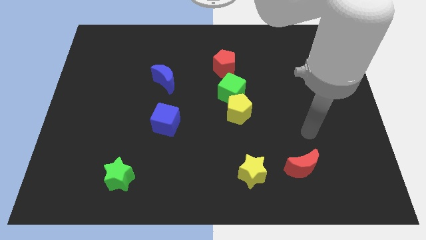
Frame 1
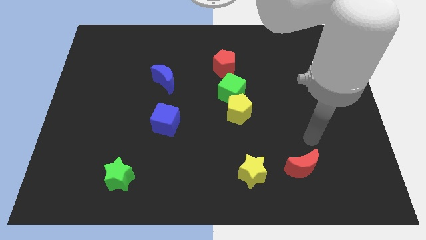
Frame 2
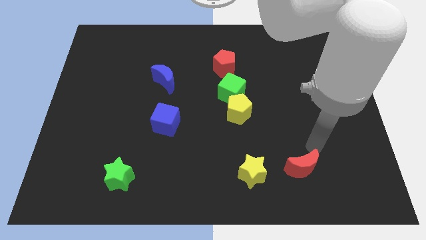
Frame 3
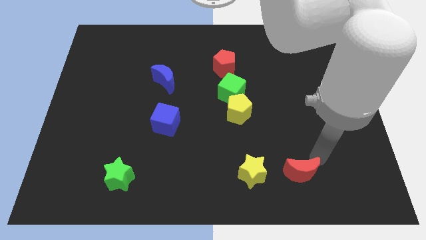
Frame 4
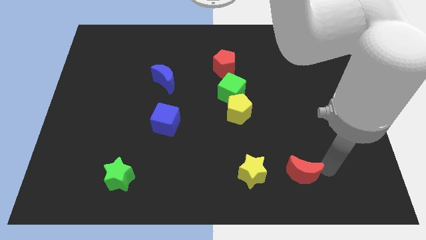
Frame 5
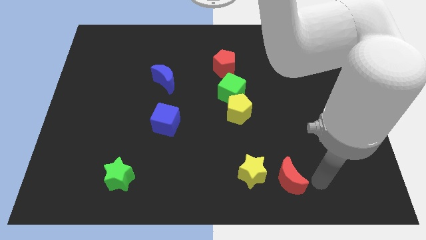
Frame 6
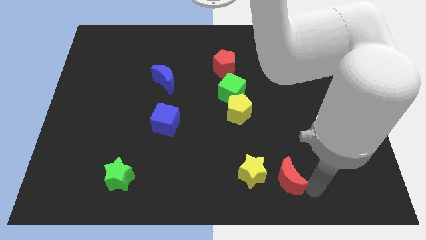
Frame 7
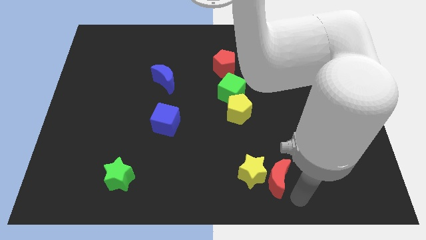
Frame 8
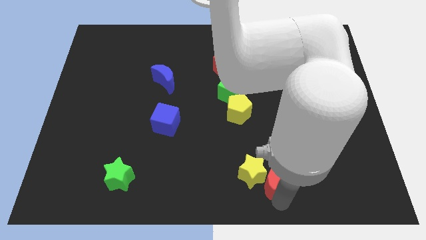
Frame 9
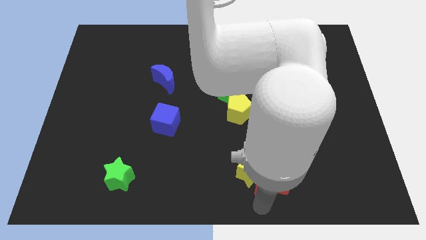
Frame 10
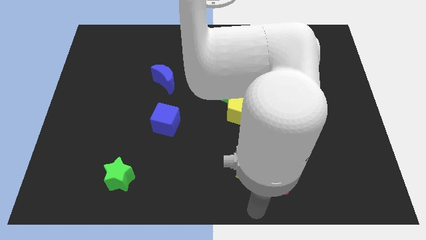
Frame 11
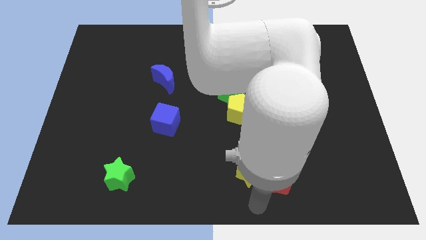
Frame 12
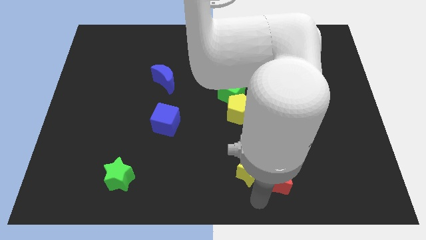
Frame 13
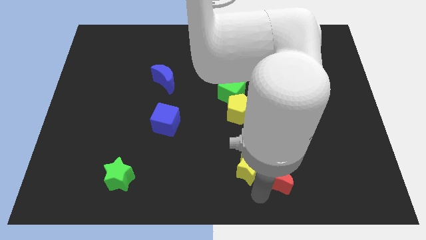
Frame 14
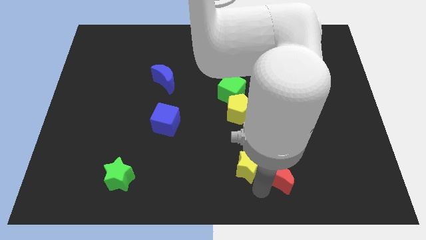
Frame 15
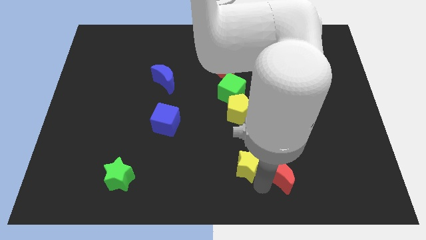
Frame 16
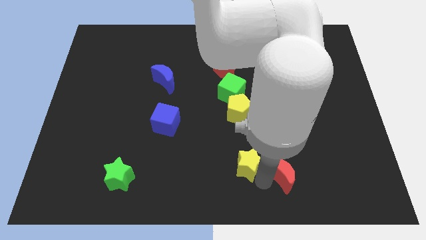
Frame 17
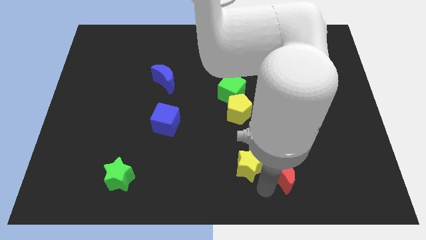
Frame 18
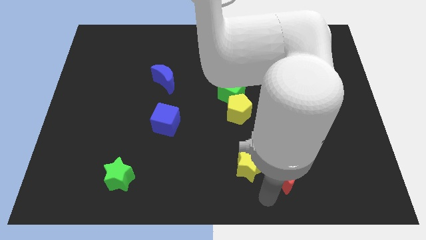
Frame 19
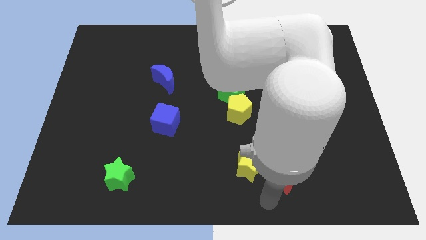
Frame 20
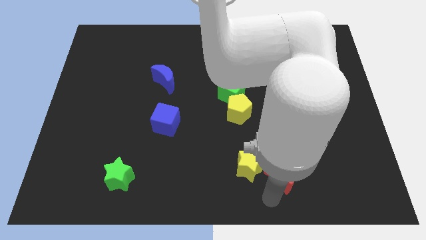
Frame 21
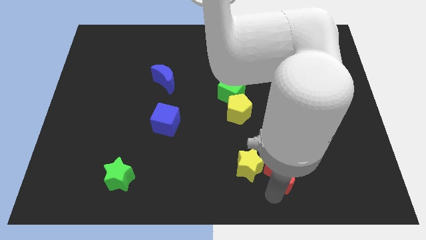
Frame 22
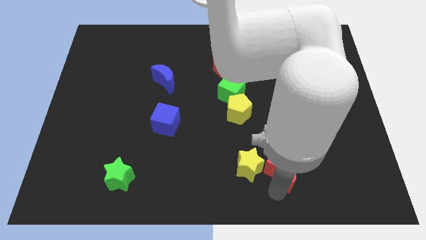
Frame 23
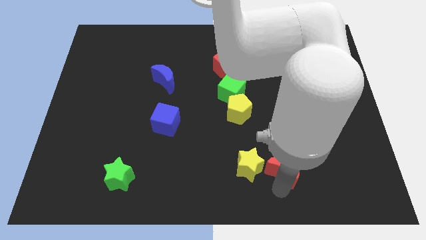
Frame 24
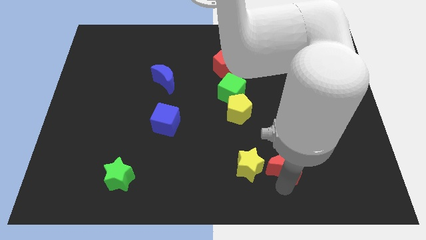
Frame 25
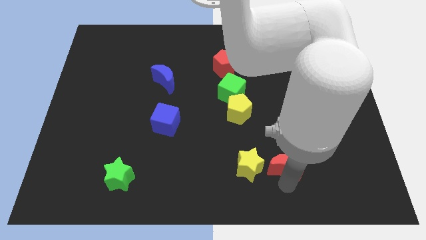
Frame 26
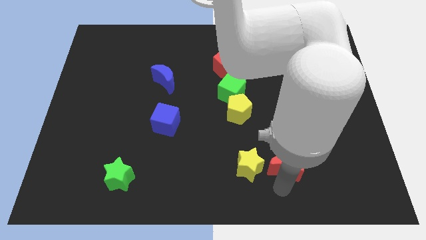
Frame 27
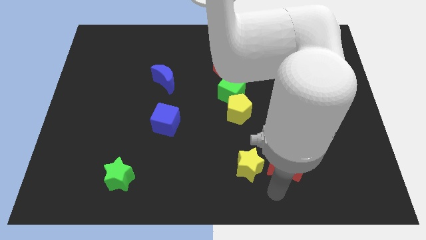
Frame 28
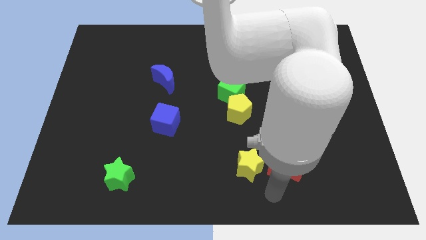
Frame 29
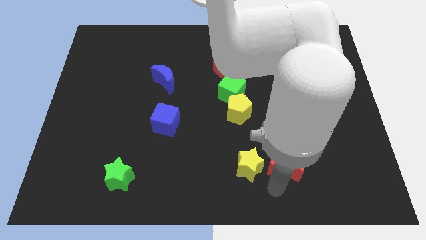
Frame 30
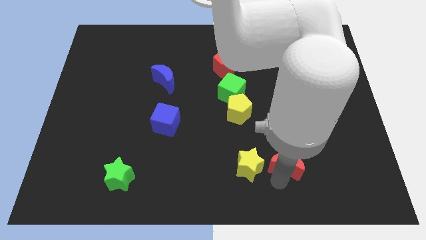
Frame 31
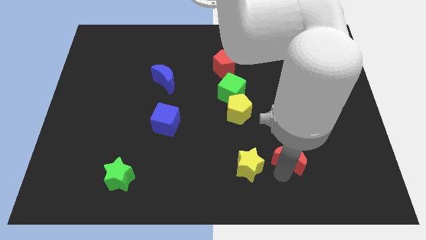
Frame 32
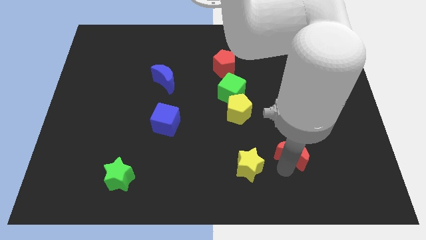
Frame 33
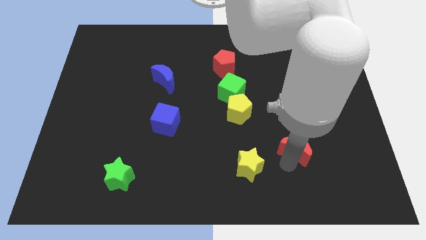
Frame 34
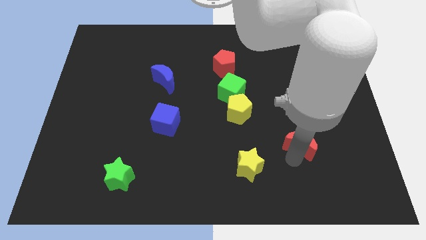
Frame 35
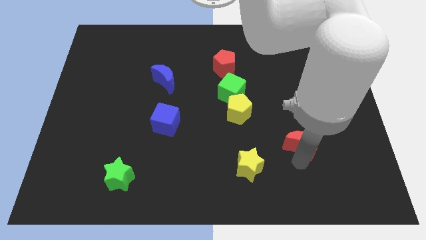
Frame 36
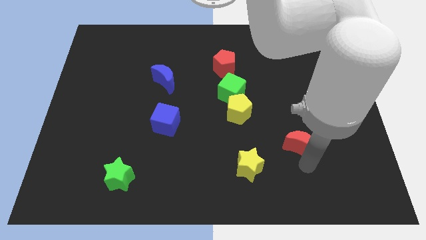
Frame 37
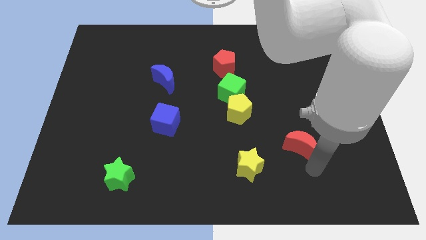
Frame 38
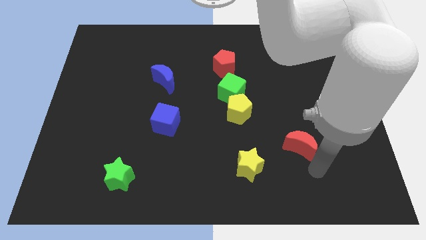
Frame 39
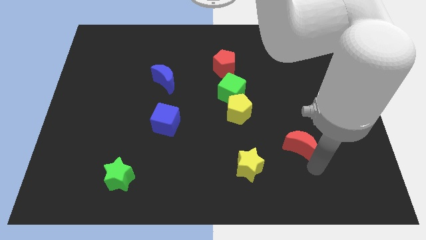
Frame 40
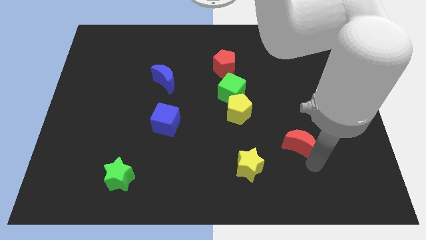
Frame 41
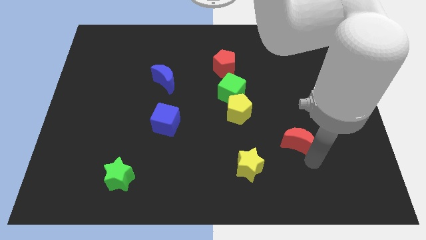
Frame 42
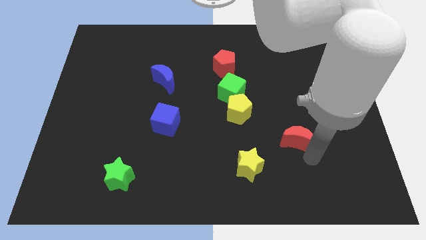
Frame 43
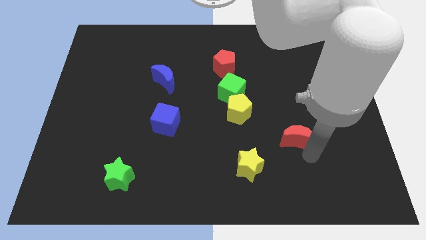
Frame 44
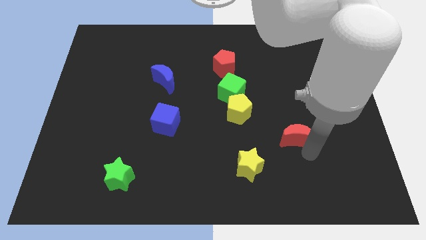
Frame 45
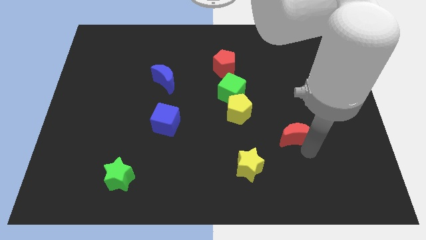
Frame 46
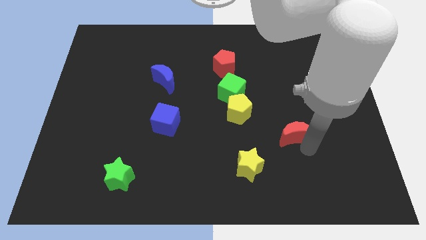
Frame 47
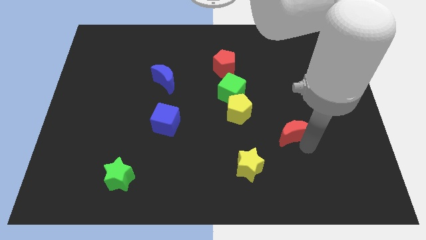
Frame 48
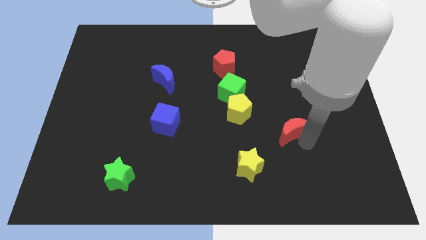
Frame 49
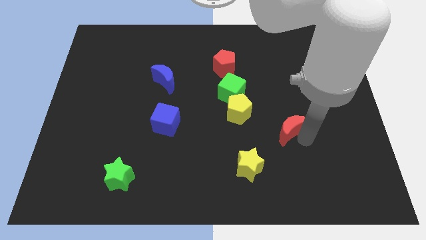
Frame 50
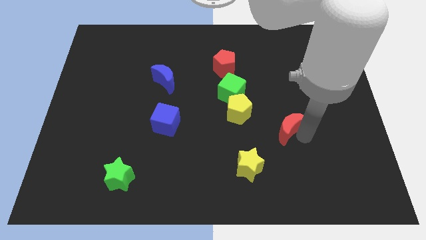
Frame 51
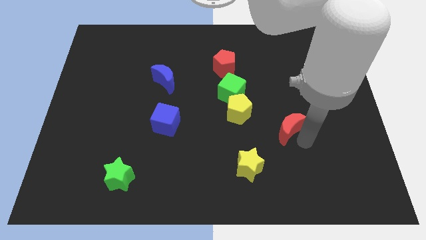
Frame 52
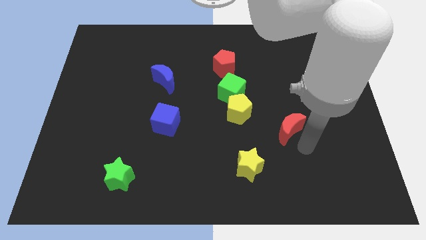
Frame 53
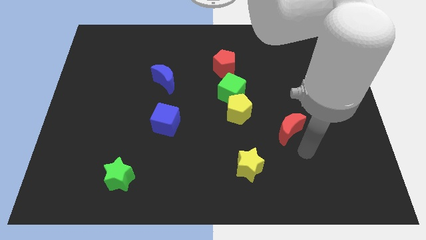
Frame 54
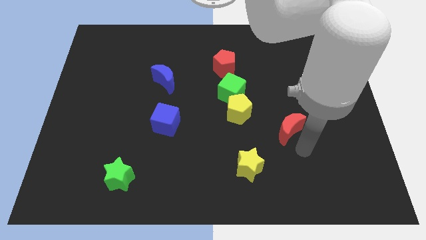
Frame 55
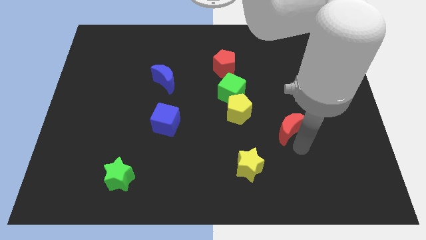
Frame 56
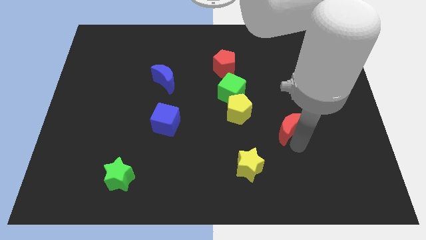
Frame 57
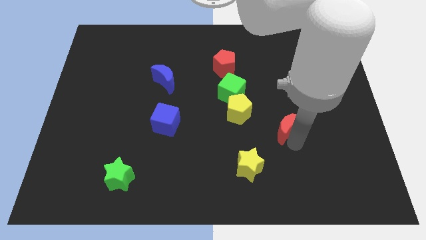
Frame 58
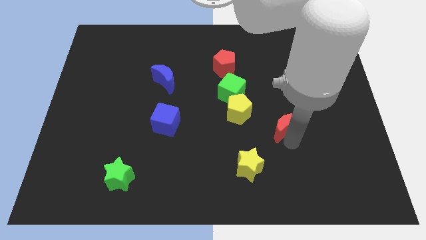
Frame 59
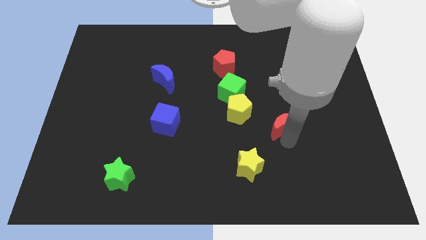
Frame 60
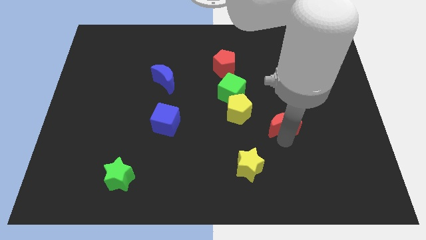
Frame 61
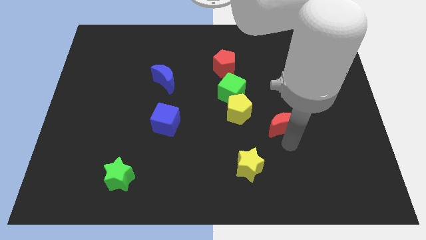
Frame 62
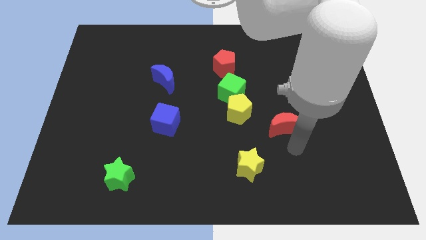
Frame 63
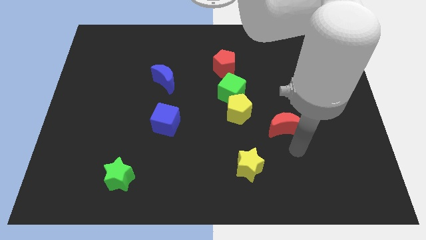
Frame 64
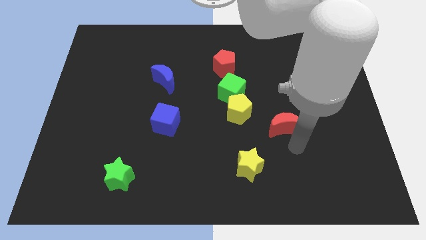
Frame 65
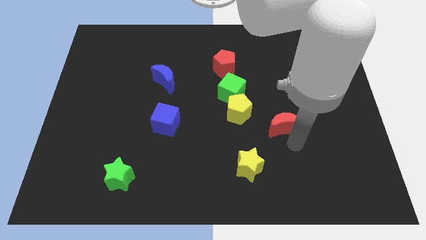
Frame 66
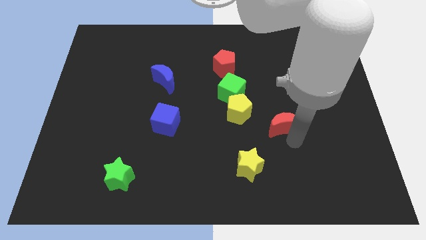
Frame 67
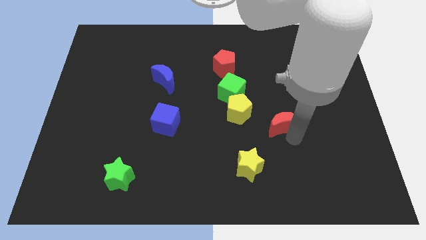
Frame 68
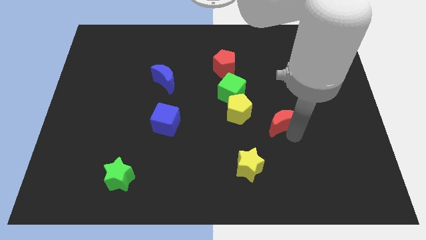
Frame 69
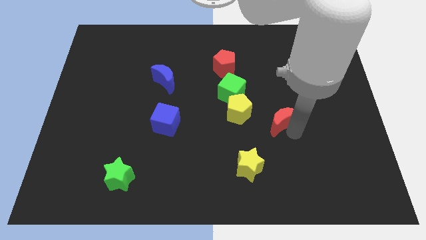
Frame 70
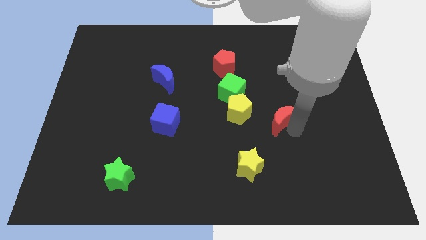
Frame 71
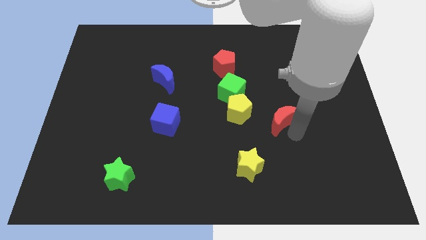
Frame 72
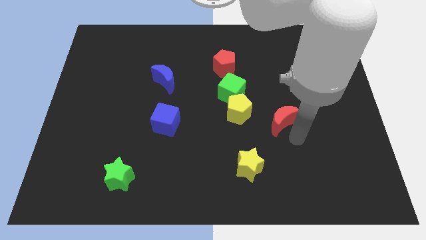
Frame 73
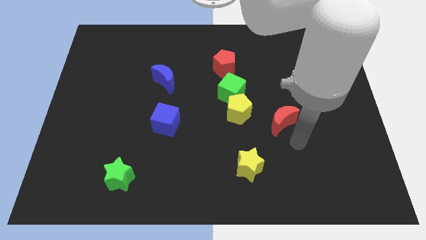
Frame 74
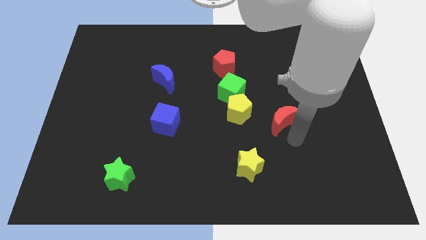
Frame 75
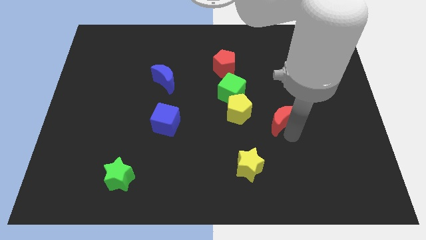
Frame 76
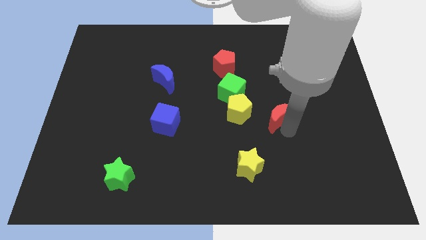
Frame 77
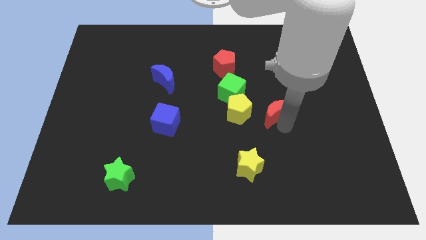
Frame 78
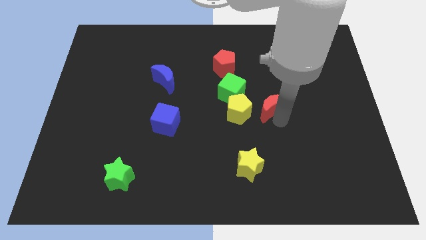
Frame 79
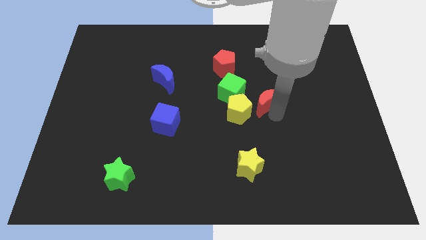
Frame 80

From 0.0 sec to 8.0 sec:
push the red moon to the top right side of the yellow pentagon
